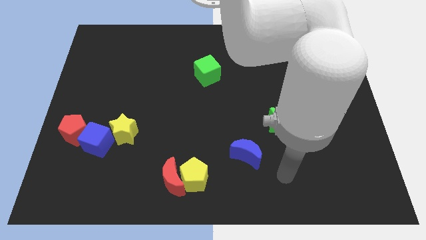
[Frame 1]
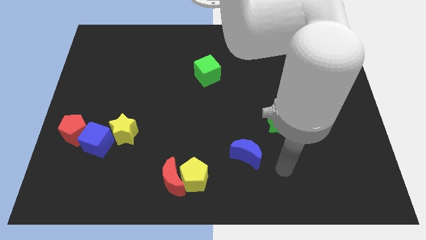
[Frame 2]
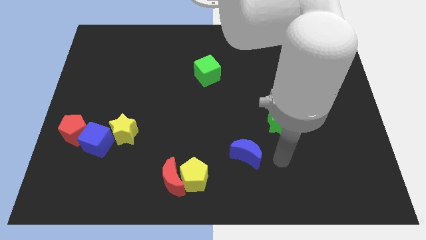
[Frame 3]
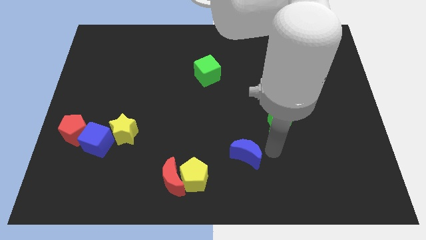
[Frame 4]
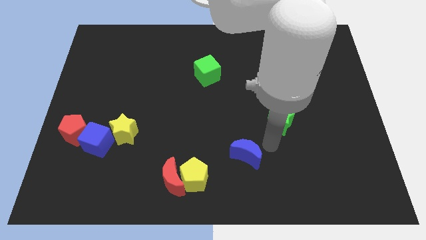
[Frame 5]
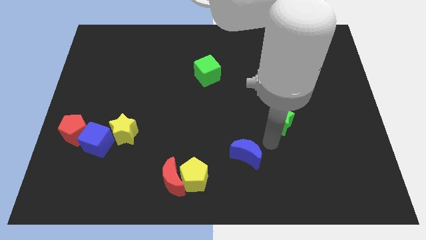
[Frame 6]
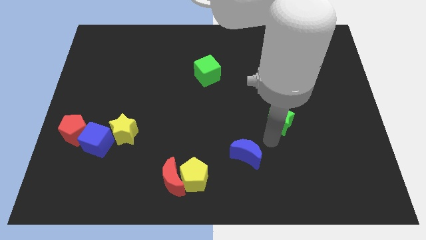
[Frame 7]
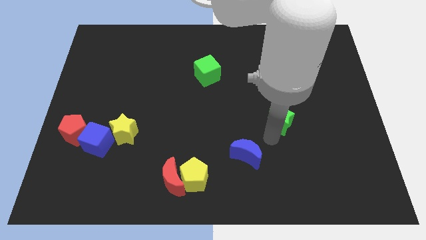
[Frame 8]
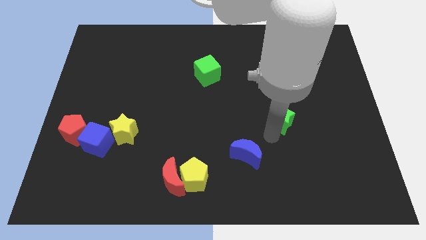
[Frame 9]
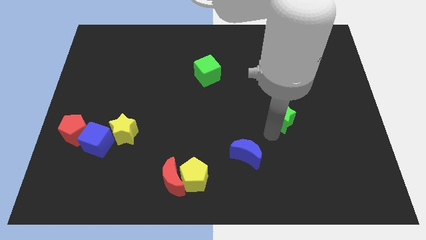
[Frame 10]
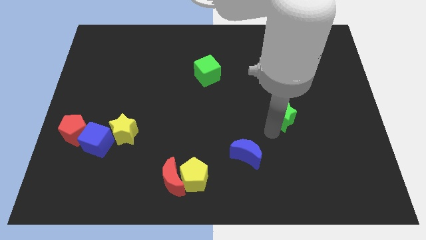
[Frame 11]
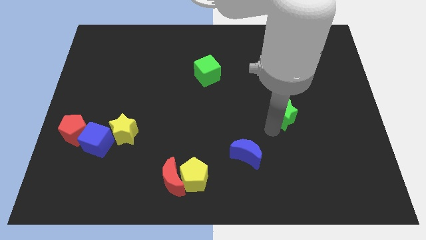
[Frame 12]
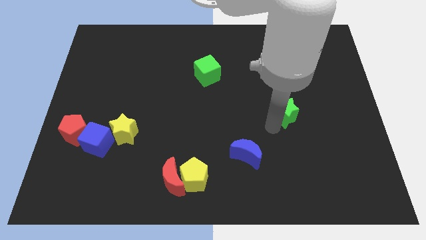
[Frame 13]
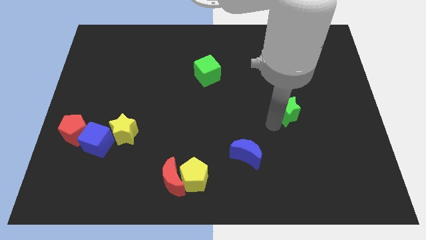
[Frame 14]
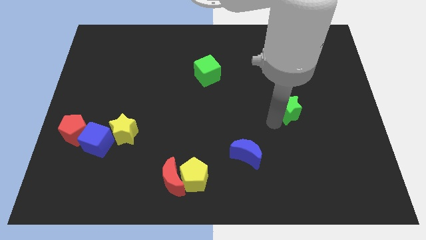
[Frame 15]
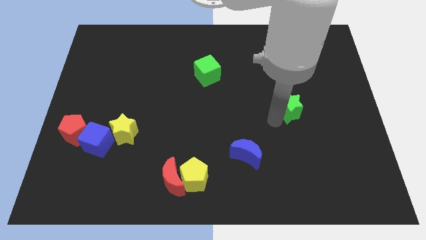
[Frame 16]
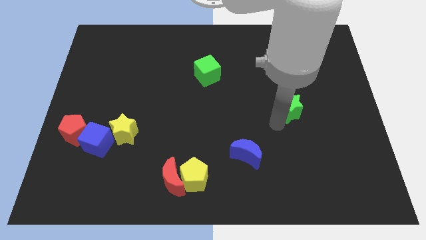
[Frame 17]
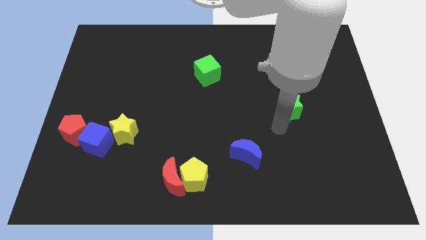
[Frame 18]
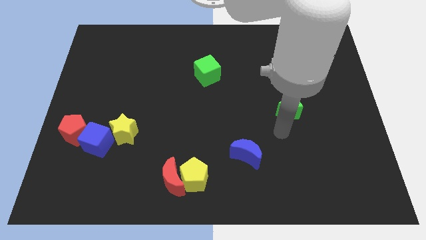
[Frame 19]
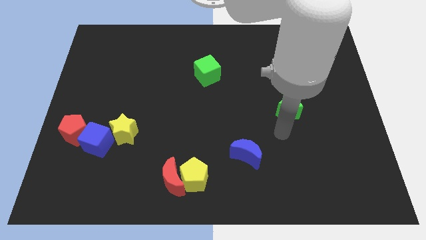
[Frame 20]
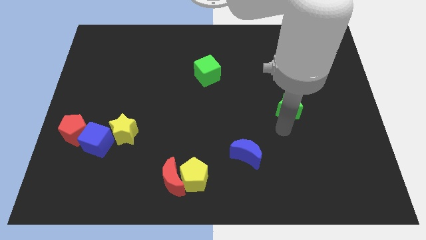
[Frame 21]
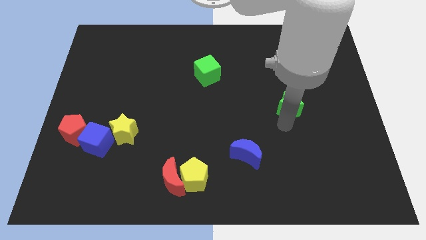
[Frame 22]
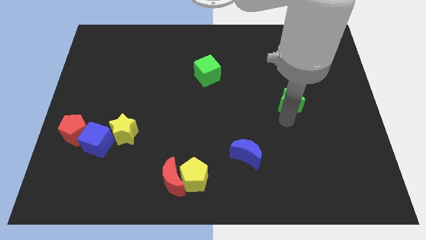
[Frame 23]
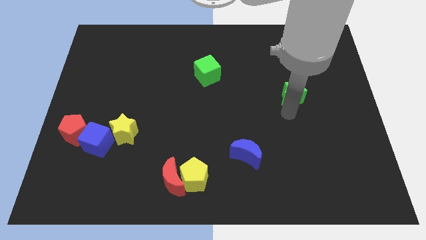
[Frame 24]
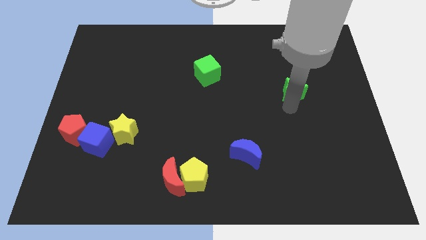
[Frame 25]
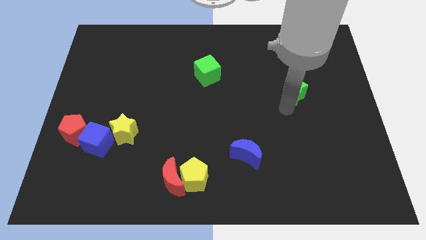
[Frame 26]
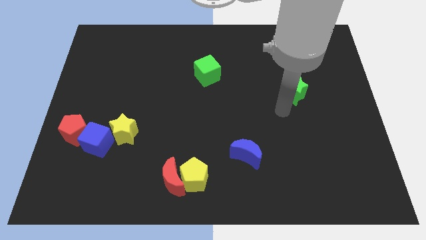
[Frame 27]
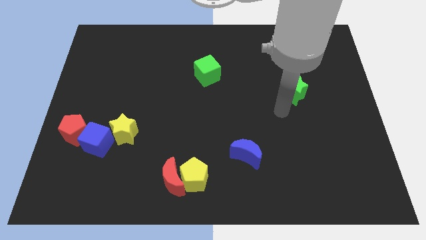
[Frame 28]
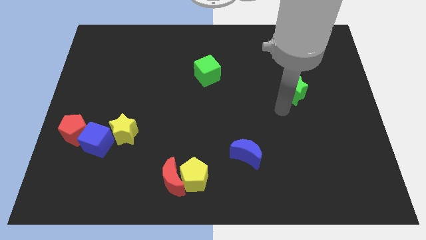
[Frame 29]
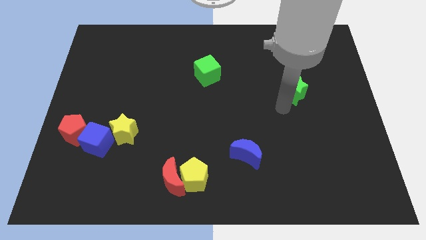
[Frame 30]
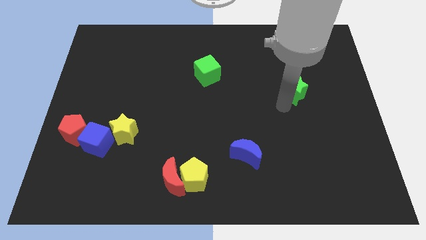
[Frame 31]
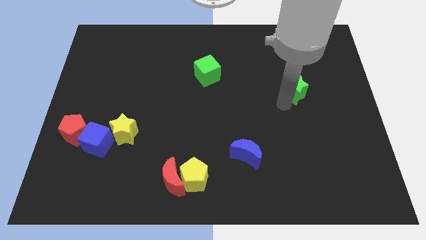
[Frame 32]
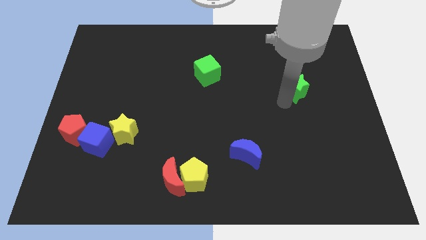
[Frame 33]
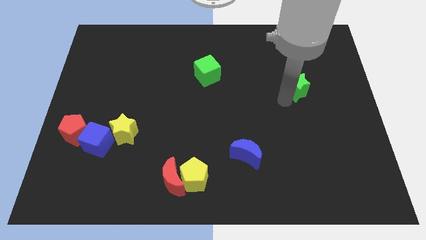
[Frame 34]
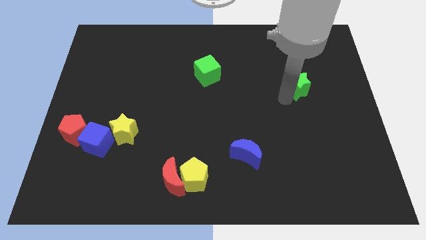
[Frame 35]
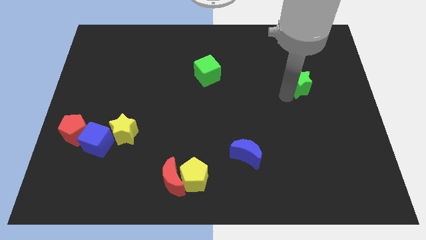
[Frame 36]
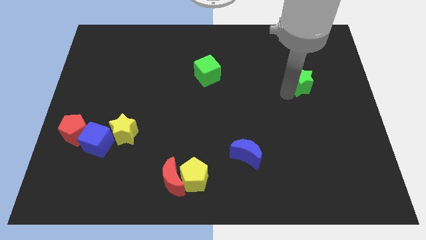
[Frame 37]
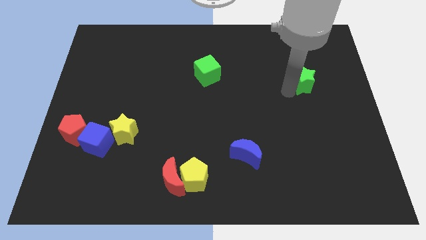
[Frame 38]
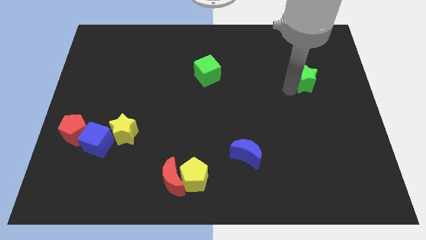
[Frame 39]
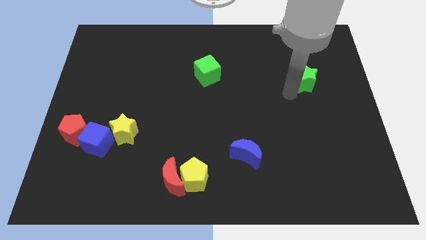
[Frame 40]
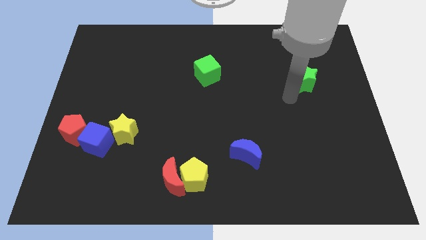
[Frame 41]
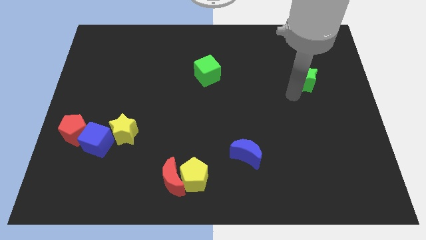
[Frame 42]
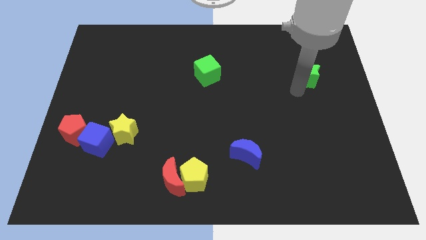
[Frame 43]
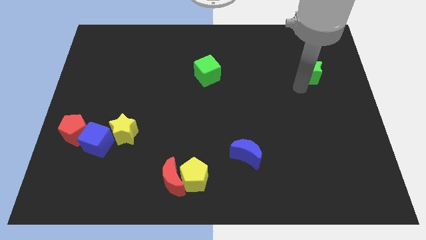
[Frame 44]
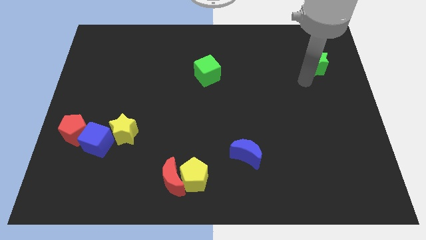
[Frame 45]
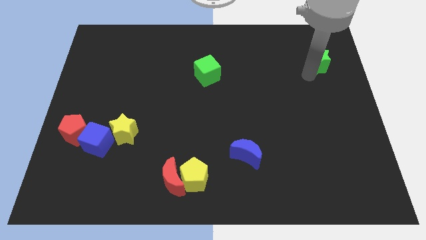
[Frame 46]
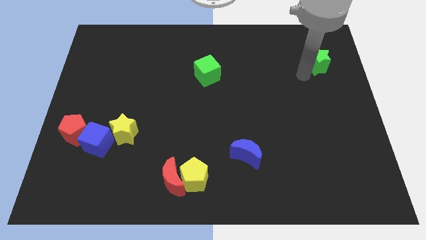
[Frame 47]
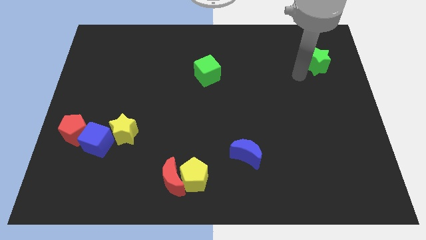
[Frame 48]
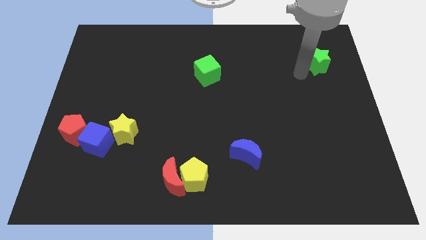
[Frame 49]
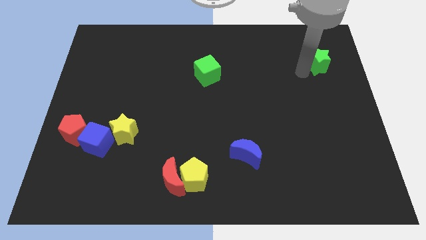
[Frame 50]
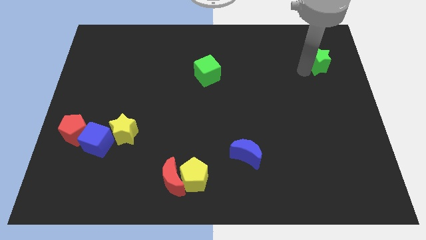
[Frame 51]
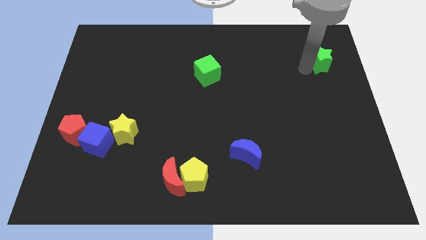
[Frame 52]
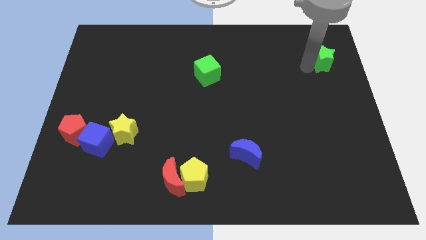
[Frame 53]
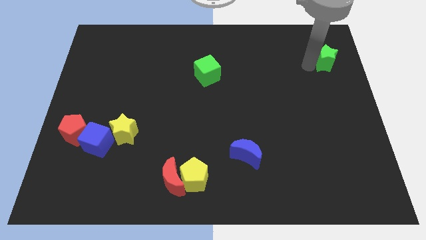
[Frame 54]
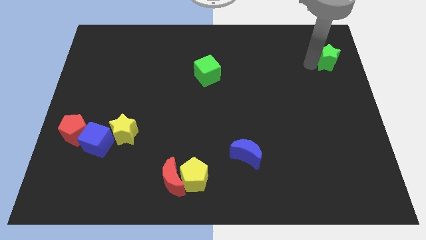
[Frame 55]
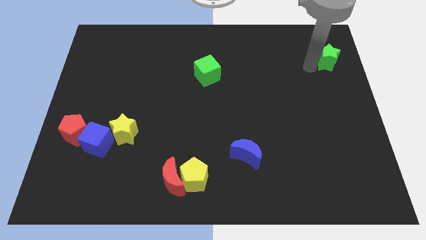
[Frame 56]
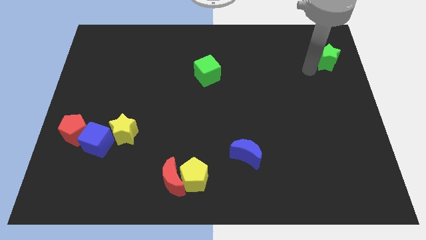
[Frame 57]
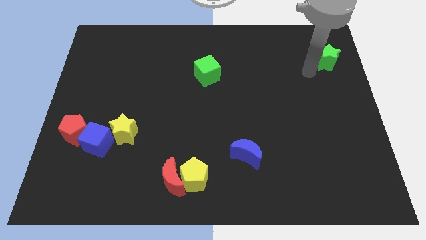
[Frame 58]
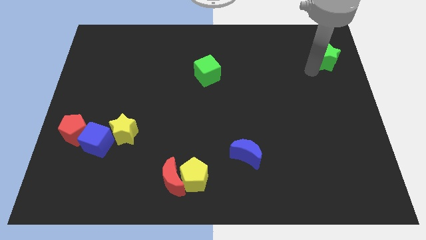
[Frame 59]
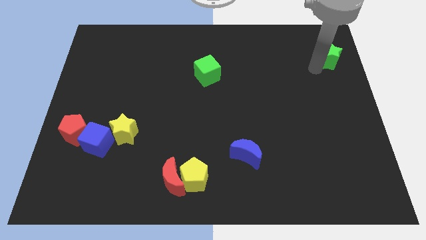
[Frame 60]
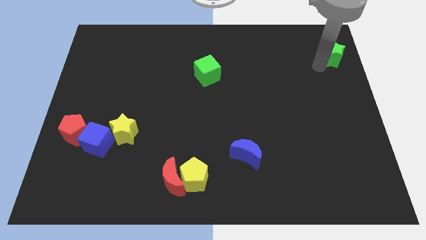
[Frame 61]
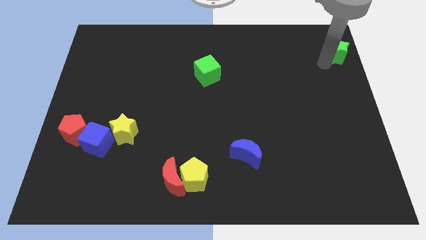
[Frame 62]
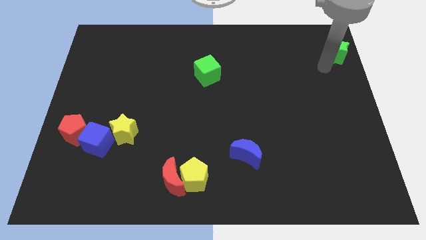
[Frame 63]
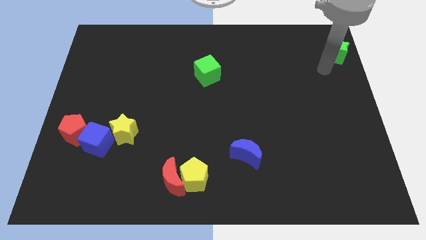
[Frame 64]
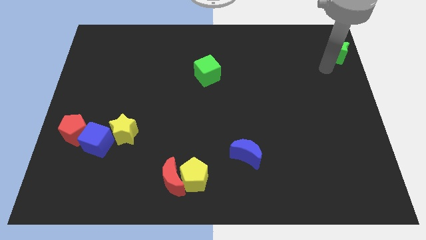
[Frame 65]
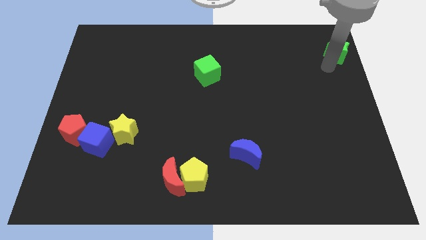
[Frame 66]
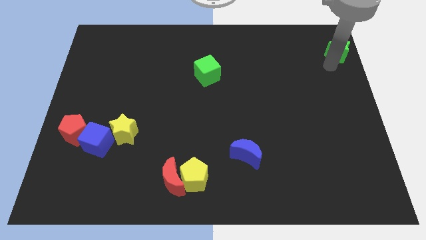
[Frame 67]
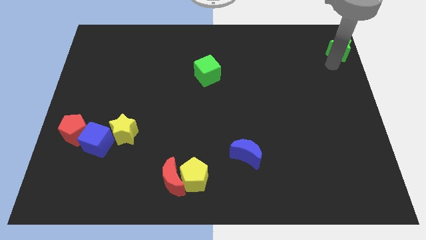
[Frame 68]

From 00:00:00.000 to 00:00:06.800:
push the green star to the top right
